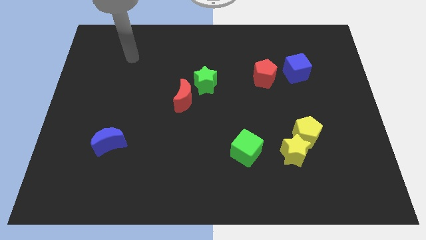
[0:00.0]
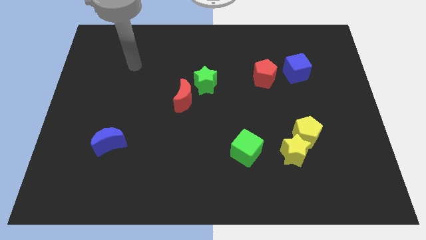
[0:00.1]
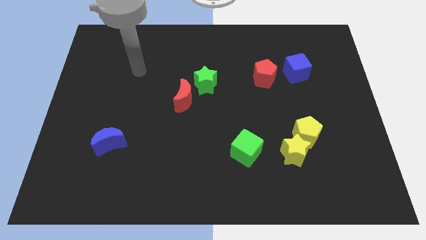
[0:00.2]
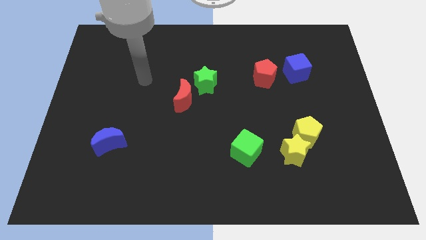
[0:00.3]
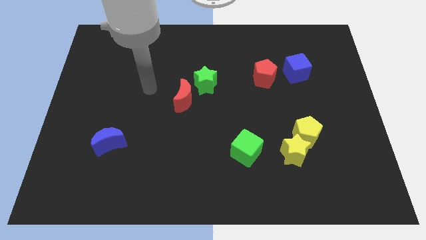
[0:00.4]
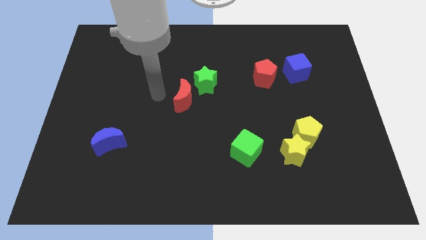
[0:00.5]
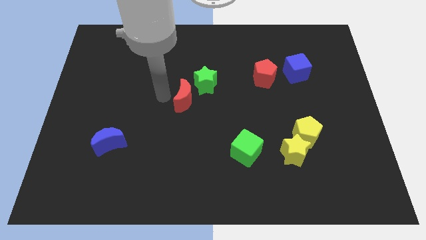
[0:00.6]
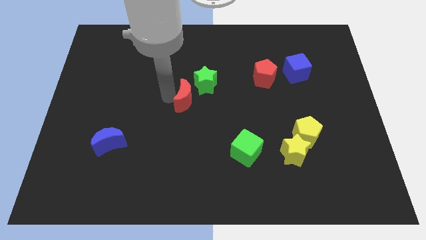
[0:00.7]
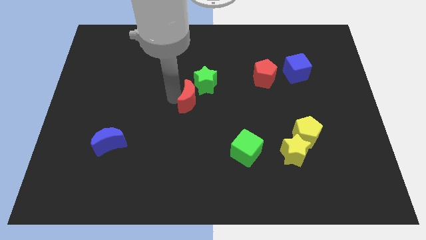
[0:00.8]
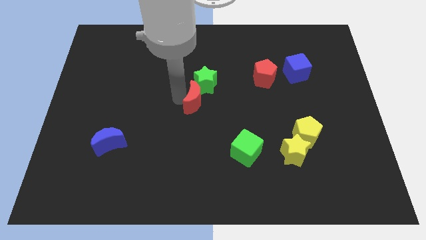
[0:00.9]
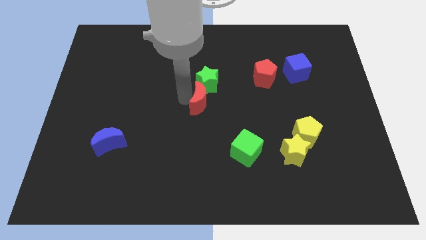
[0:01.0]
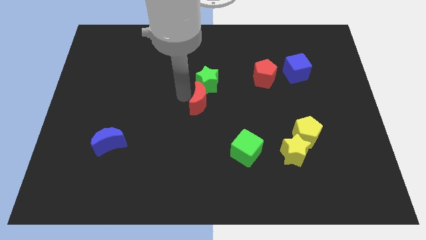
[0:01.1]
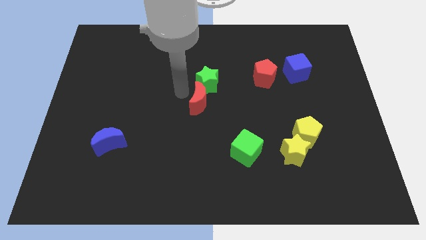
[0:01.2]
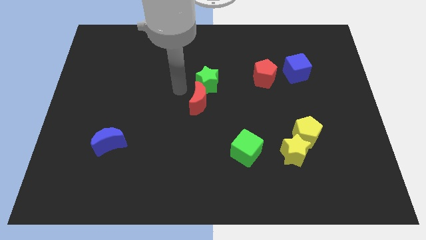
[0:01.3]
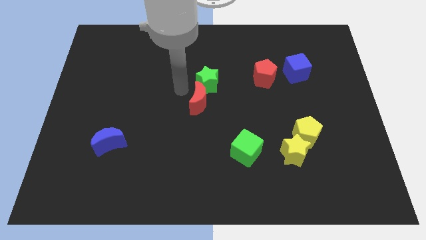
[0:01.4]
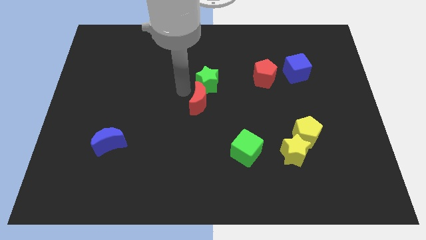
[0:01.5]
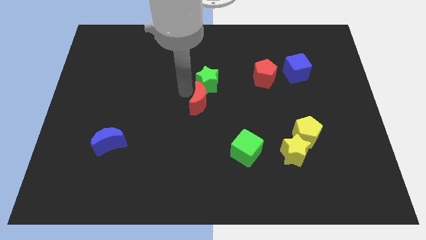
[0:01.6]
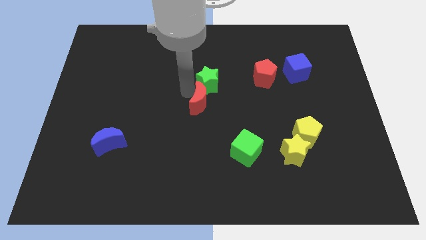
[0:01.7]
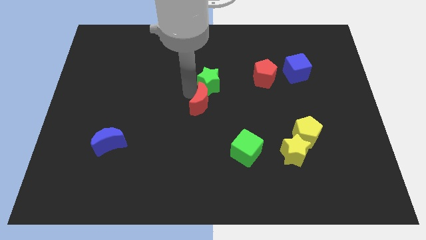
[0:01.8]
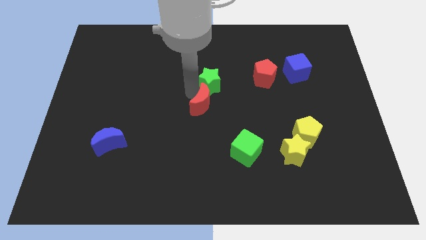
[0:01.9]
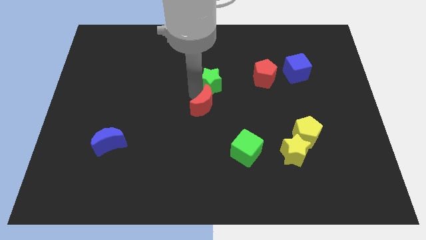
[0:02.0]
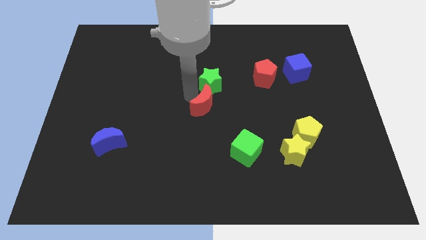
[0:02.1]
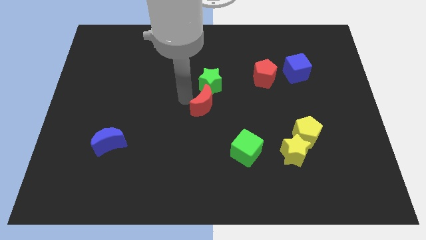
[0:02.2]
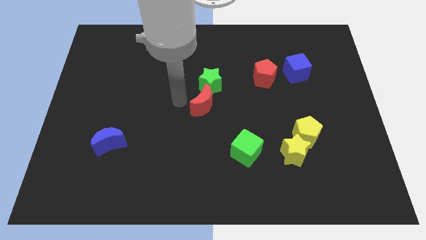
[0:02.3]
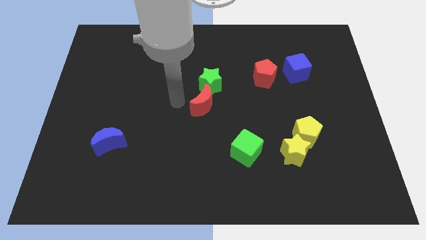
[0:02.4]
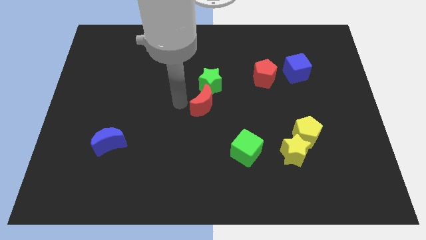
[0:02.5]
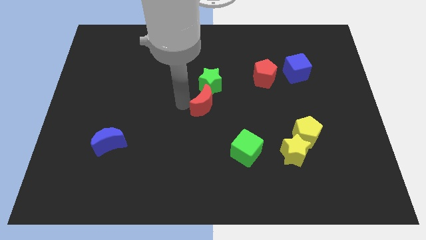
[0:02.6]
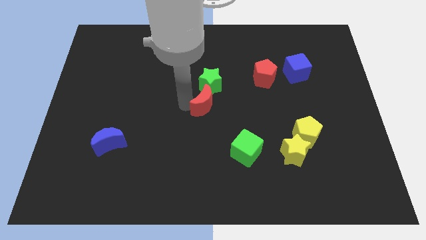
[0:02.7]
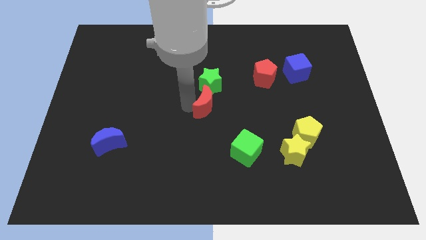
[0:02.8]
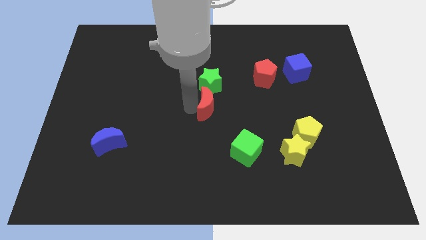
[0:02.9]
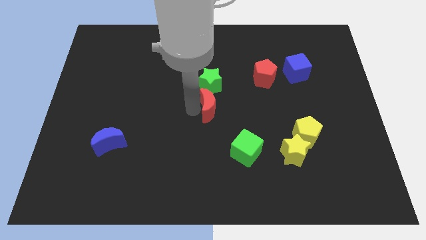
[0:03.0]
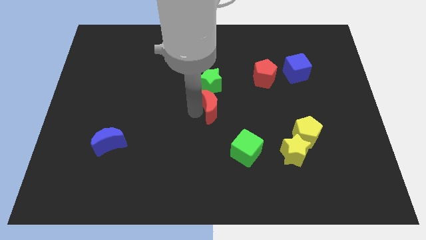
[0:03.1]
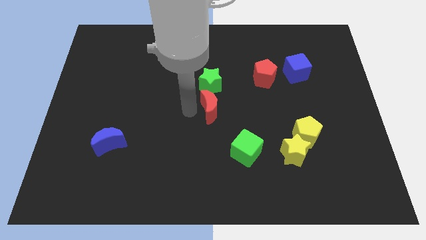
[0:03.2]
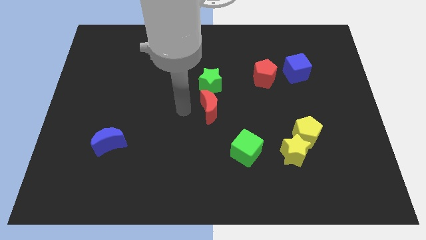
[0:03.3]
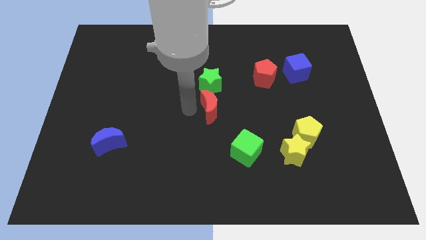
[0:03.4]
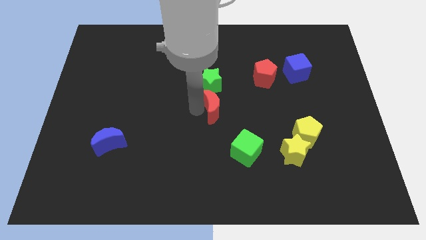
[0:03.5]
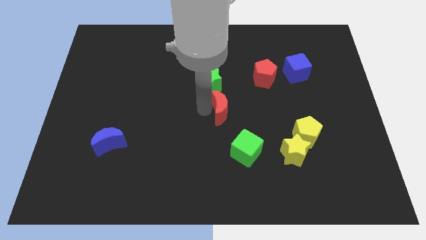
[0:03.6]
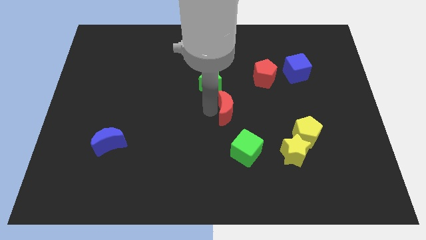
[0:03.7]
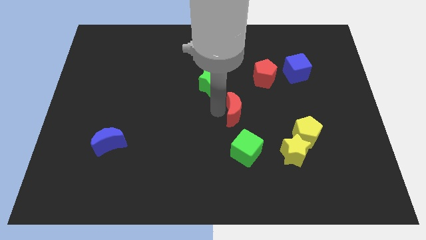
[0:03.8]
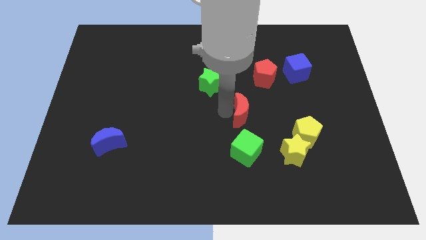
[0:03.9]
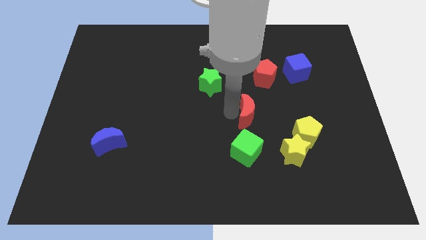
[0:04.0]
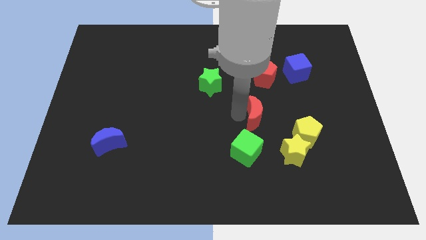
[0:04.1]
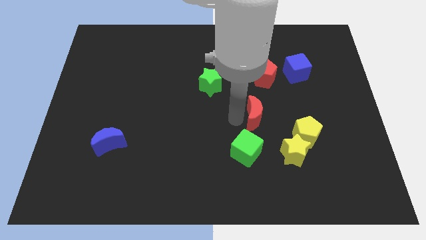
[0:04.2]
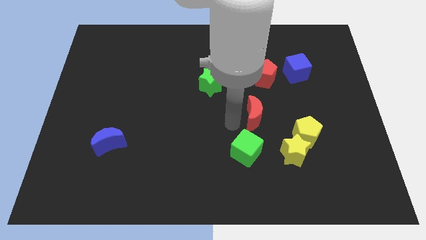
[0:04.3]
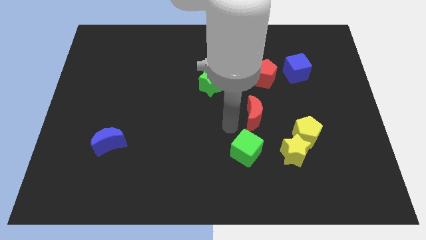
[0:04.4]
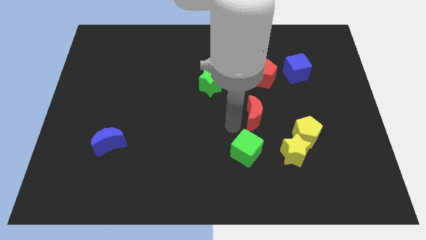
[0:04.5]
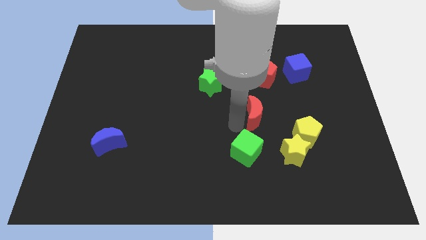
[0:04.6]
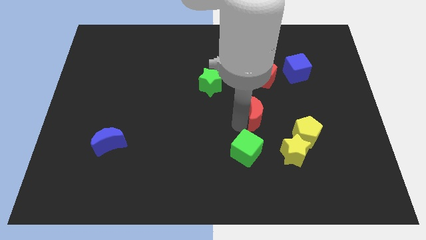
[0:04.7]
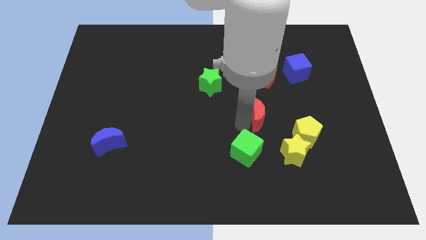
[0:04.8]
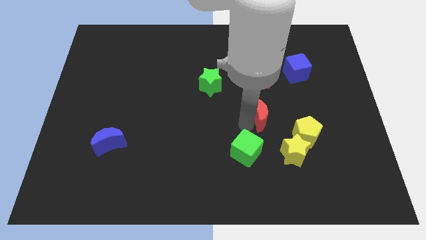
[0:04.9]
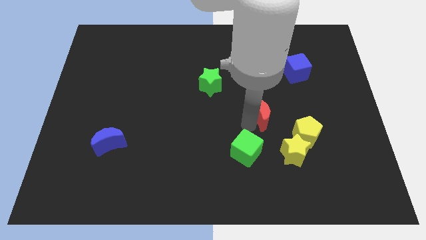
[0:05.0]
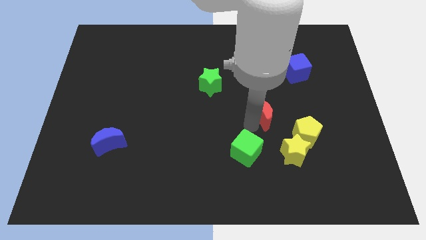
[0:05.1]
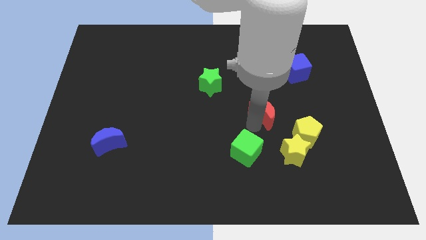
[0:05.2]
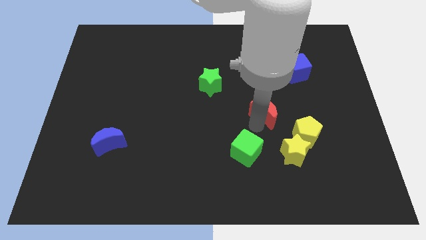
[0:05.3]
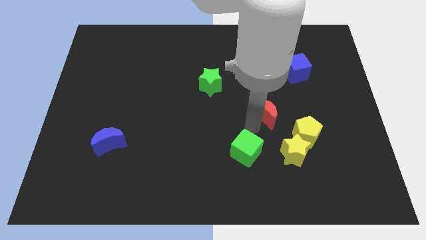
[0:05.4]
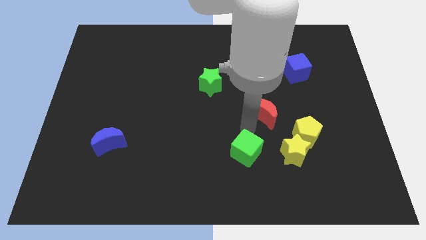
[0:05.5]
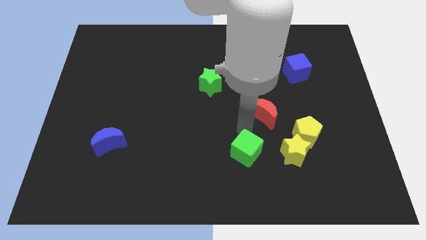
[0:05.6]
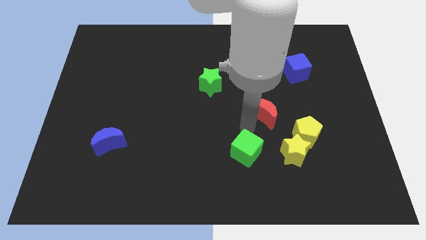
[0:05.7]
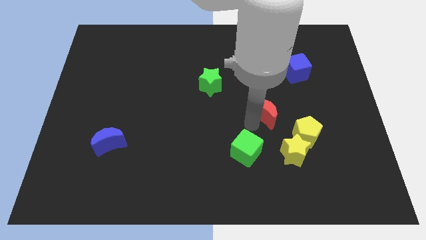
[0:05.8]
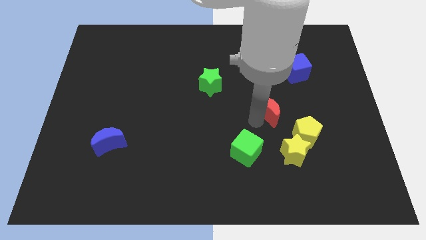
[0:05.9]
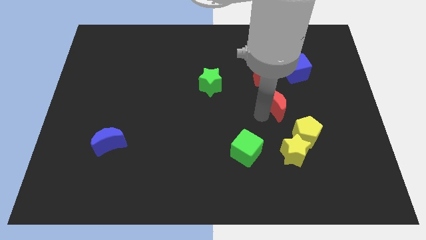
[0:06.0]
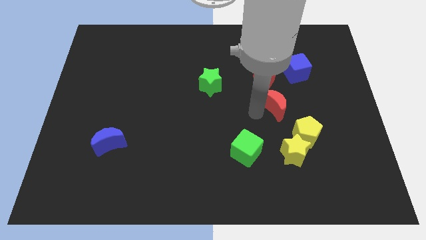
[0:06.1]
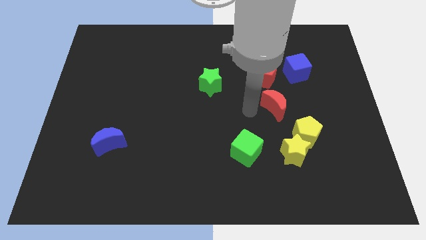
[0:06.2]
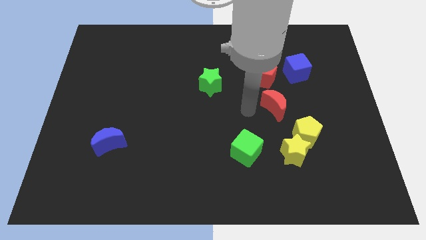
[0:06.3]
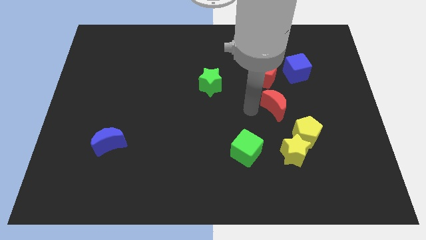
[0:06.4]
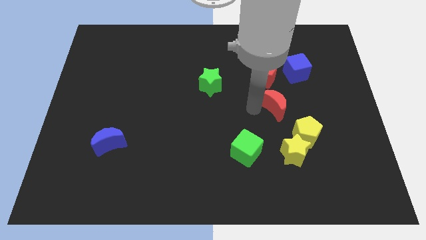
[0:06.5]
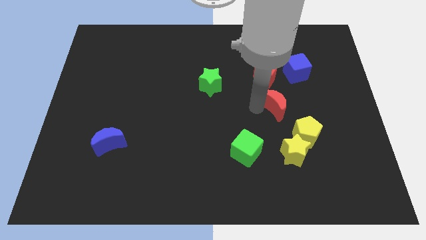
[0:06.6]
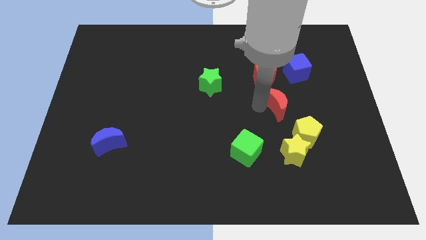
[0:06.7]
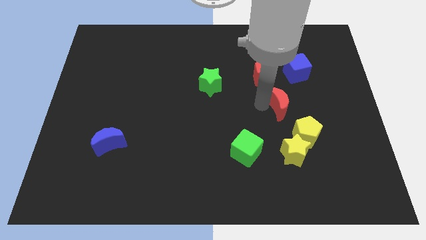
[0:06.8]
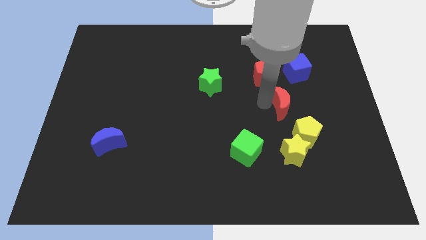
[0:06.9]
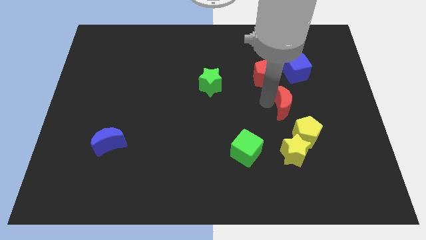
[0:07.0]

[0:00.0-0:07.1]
slide the red moon to the bottom of the blue cube
